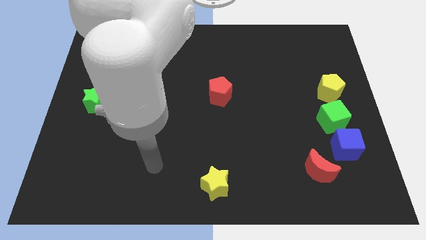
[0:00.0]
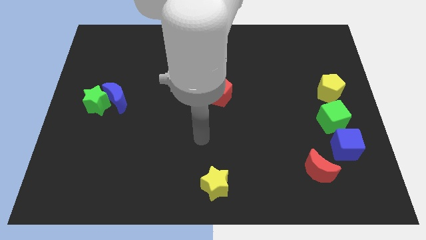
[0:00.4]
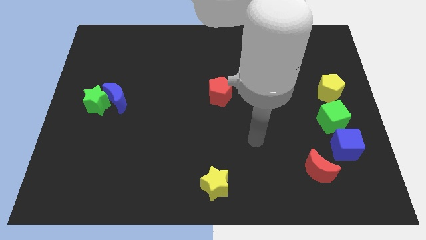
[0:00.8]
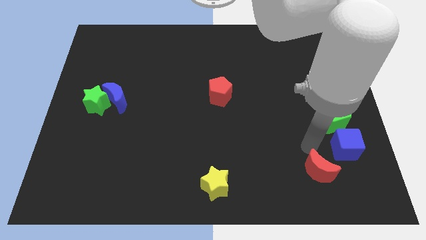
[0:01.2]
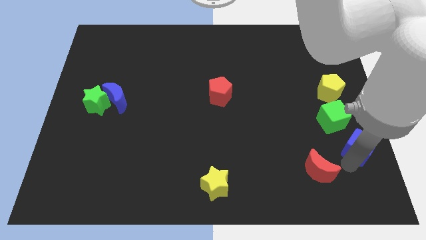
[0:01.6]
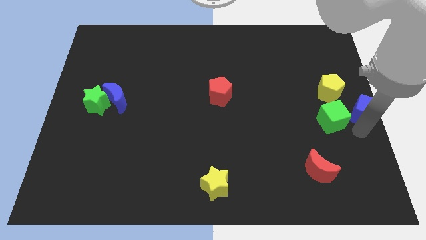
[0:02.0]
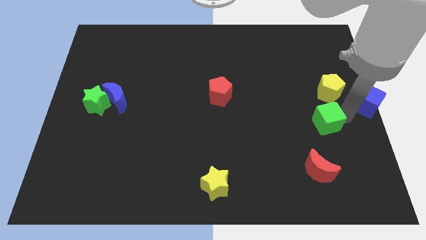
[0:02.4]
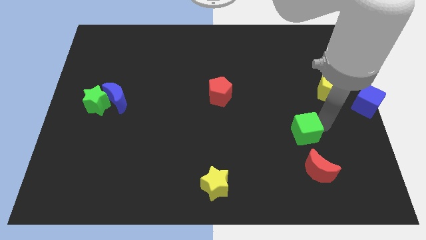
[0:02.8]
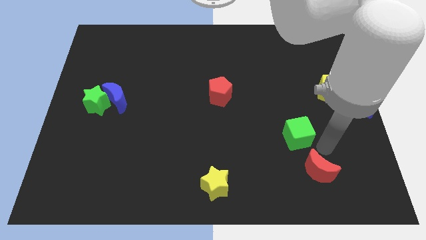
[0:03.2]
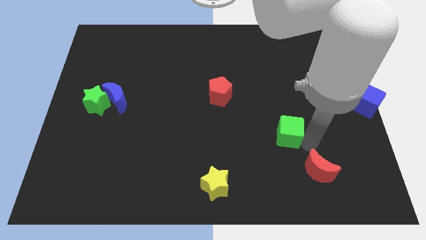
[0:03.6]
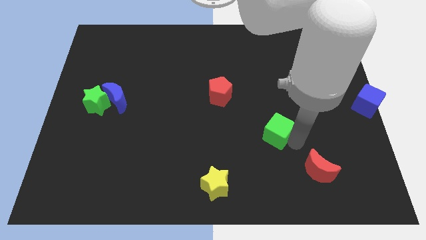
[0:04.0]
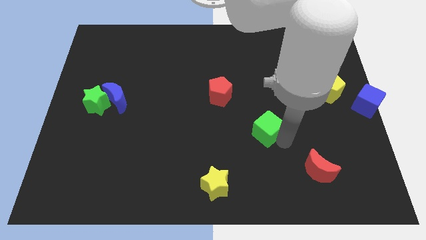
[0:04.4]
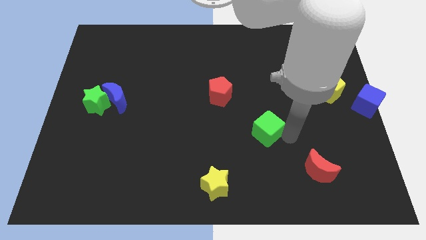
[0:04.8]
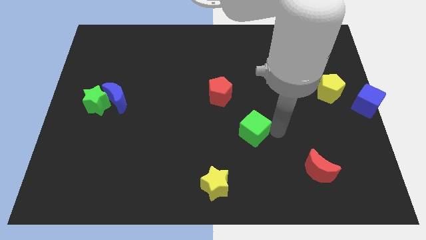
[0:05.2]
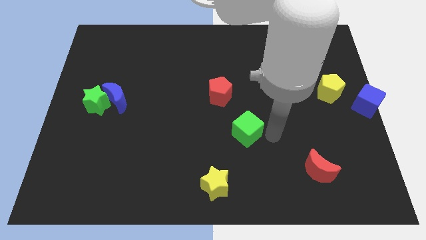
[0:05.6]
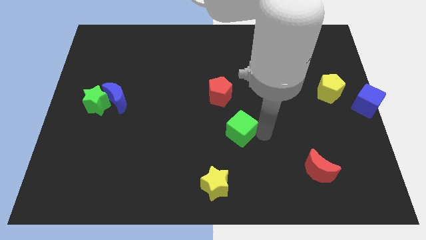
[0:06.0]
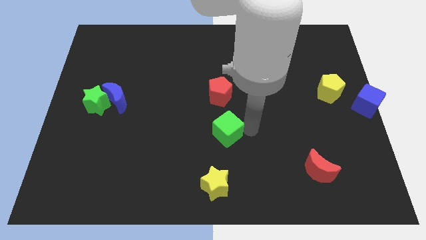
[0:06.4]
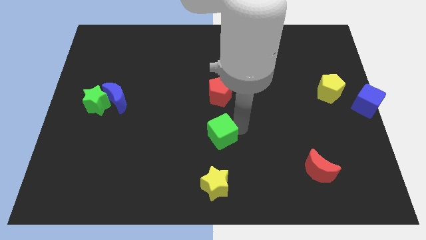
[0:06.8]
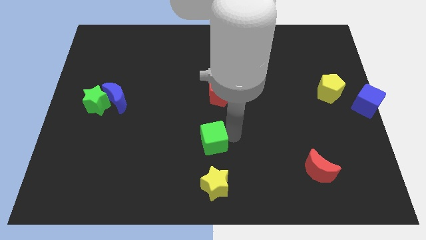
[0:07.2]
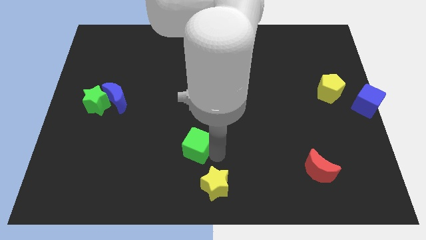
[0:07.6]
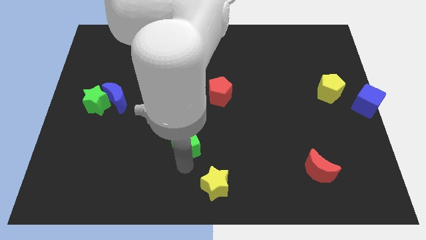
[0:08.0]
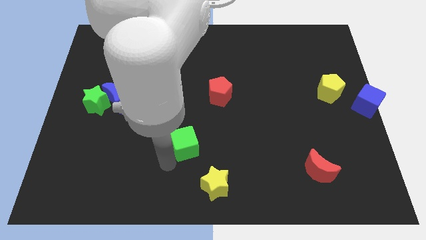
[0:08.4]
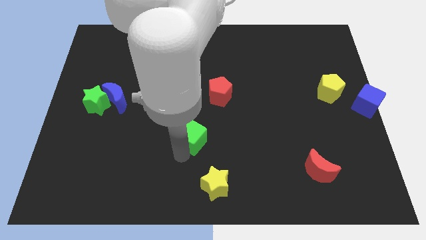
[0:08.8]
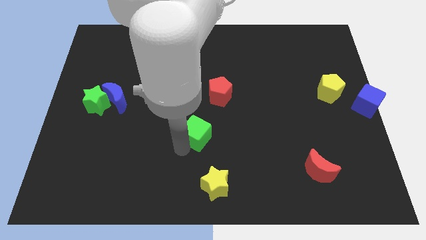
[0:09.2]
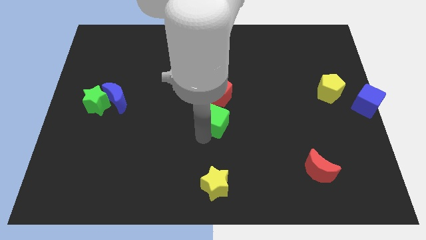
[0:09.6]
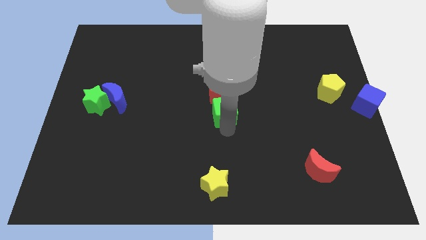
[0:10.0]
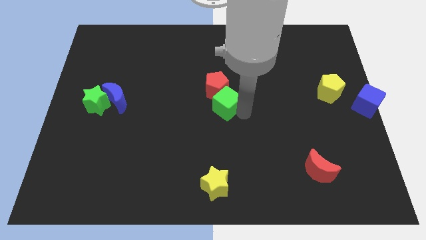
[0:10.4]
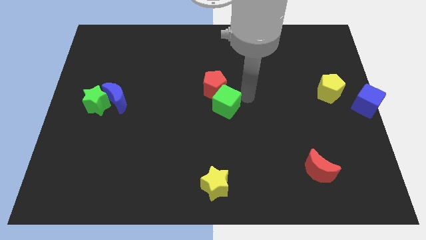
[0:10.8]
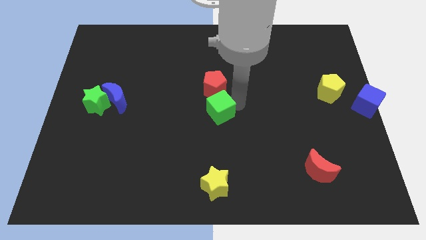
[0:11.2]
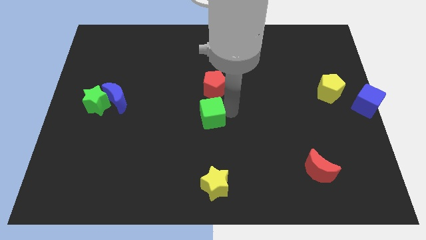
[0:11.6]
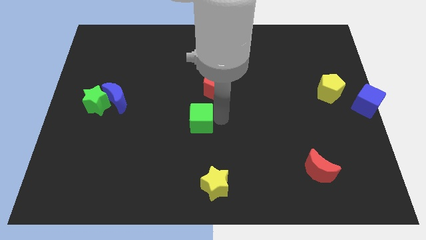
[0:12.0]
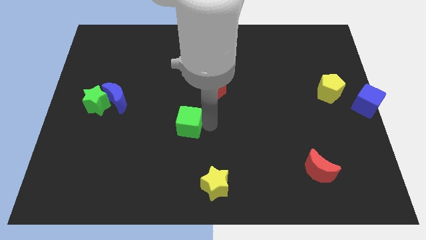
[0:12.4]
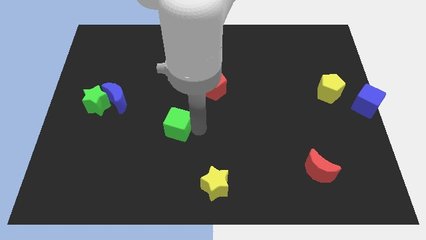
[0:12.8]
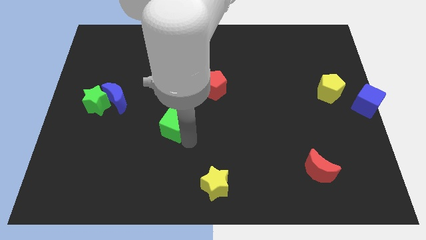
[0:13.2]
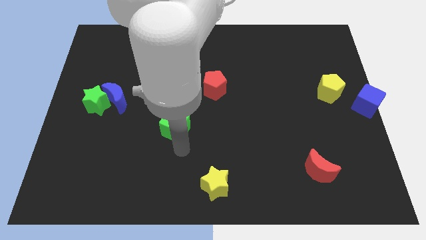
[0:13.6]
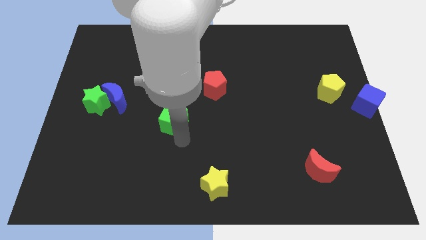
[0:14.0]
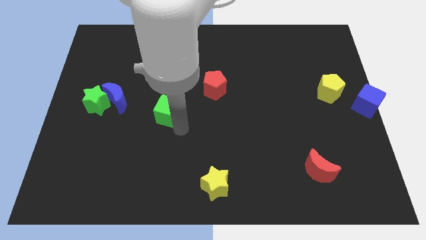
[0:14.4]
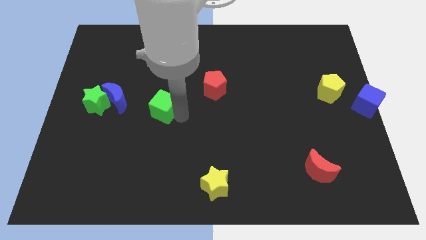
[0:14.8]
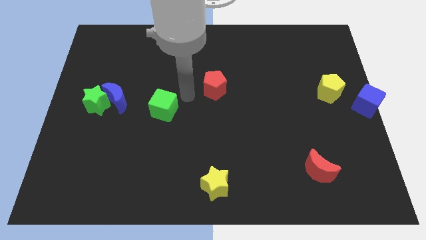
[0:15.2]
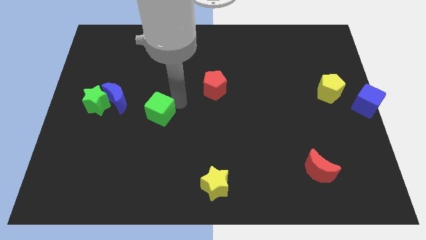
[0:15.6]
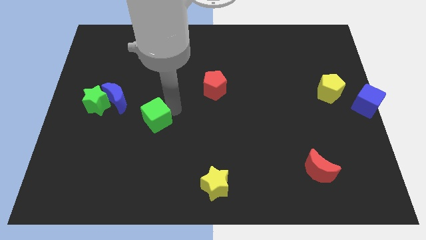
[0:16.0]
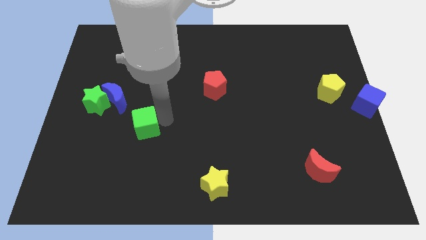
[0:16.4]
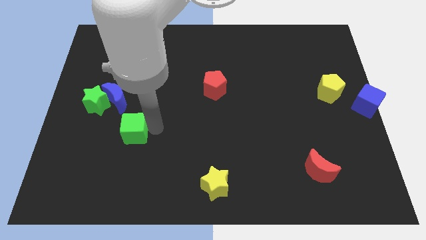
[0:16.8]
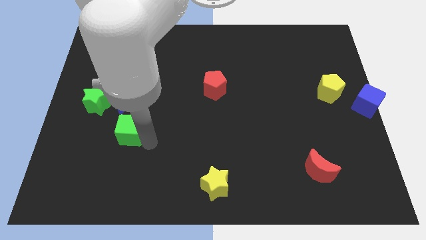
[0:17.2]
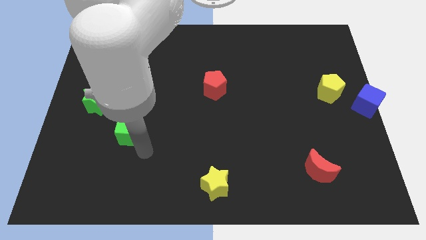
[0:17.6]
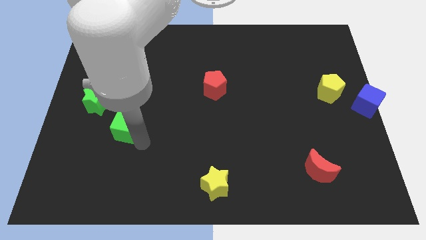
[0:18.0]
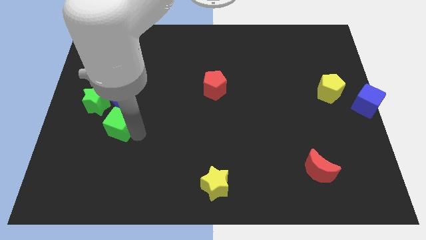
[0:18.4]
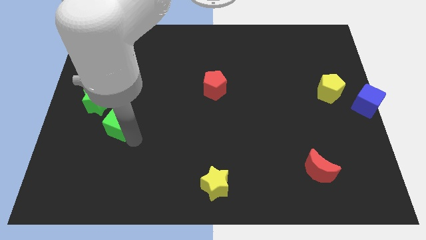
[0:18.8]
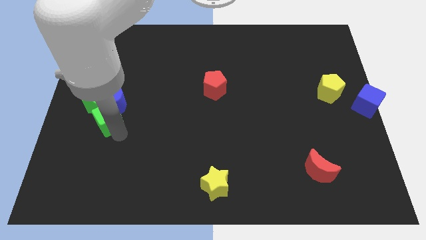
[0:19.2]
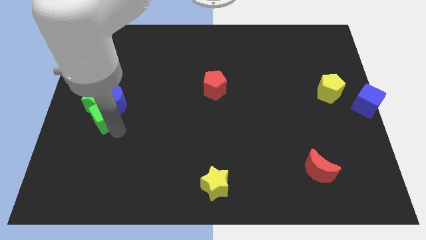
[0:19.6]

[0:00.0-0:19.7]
put the green cube next to the green star

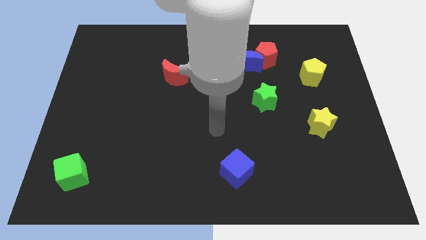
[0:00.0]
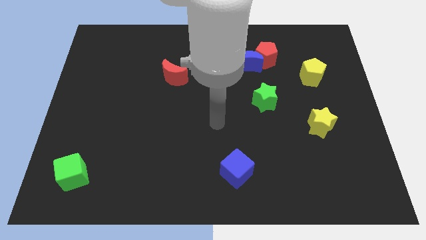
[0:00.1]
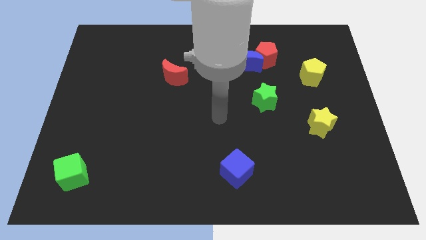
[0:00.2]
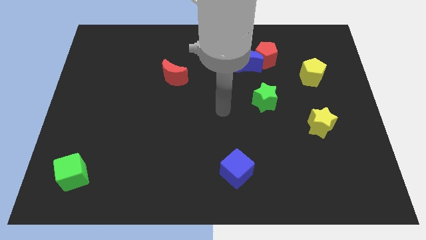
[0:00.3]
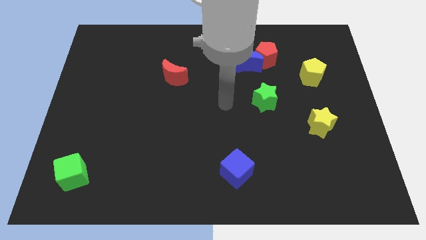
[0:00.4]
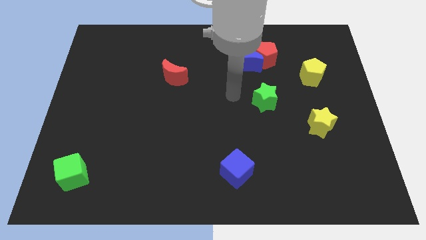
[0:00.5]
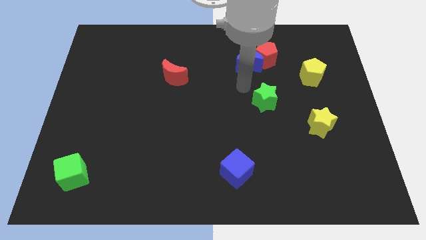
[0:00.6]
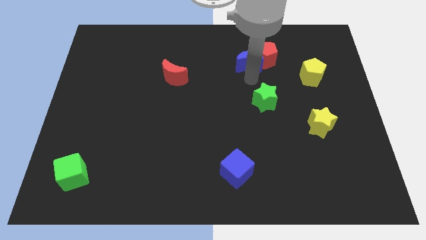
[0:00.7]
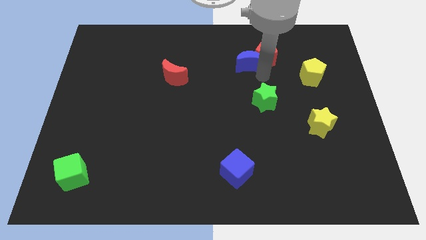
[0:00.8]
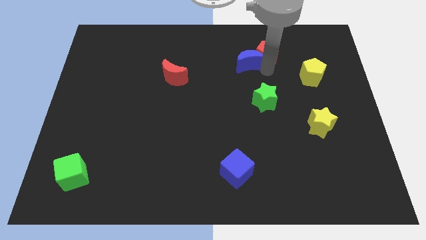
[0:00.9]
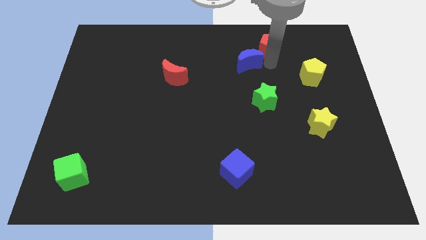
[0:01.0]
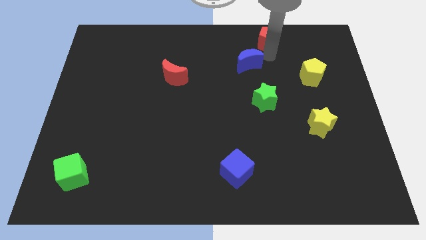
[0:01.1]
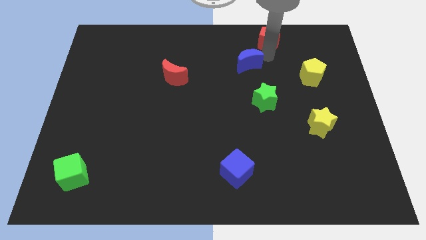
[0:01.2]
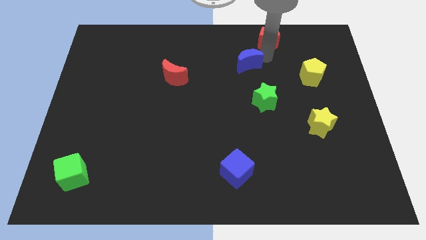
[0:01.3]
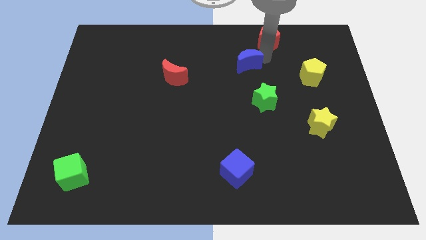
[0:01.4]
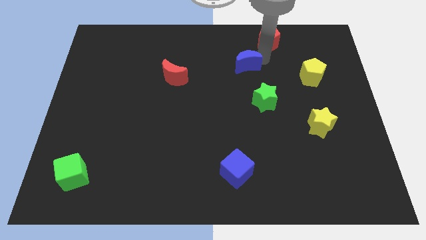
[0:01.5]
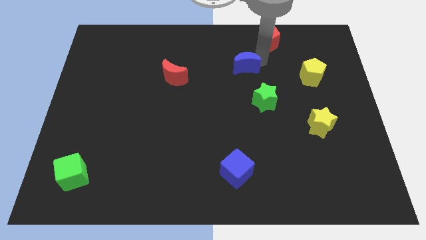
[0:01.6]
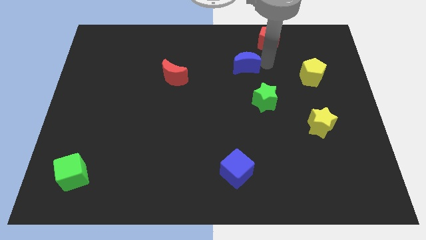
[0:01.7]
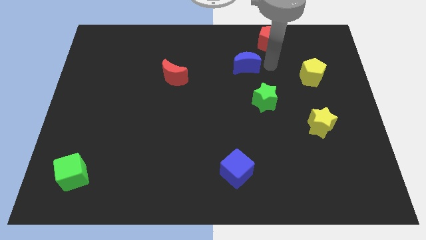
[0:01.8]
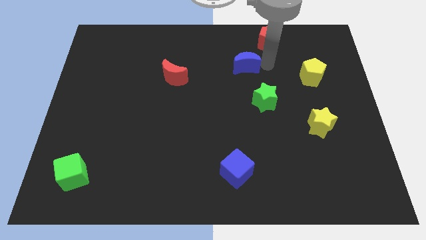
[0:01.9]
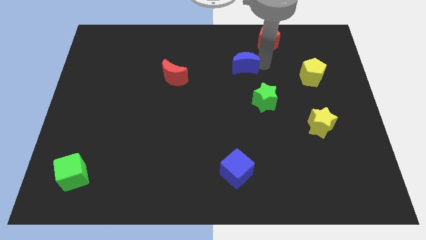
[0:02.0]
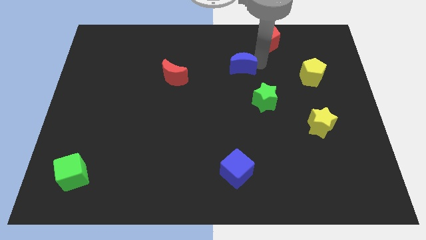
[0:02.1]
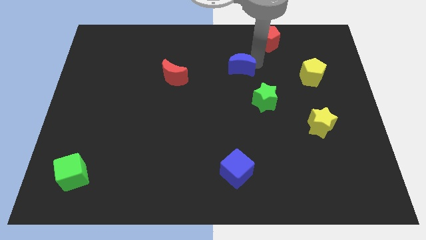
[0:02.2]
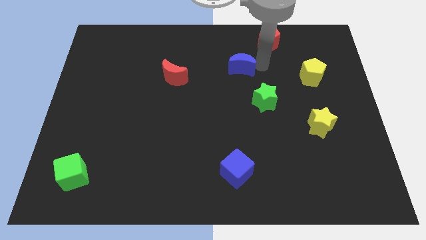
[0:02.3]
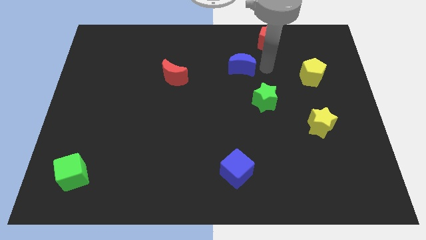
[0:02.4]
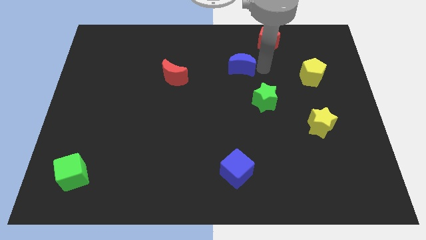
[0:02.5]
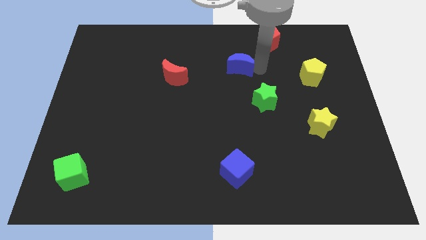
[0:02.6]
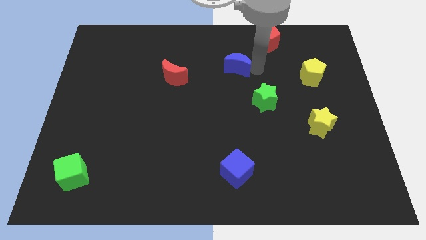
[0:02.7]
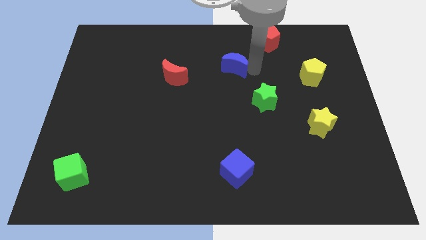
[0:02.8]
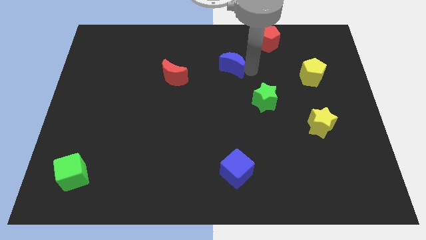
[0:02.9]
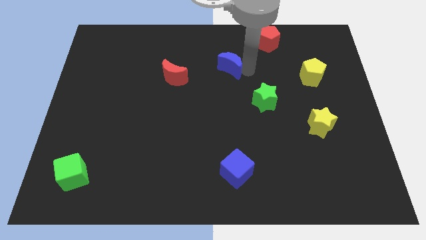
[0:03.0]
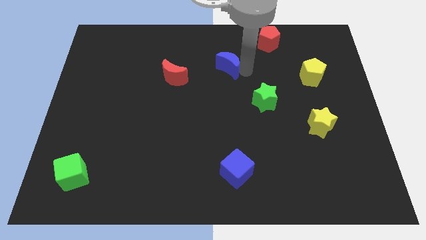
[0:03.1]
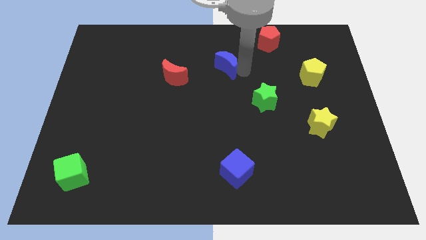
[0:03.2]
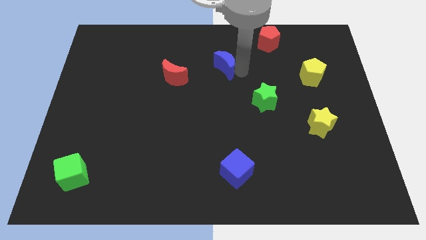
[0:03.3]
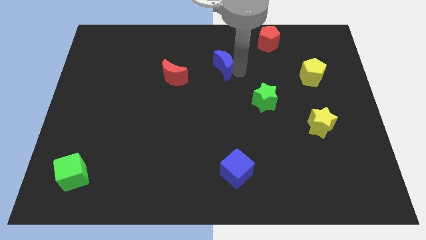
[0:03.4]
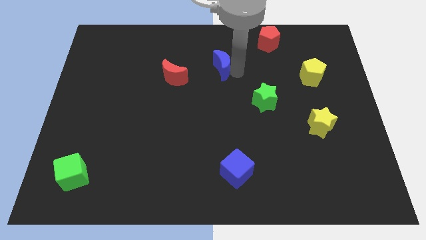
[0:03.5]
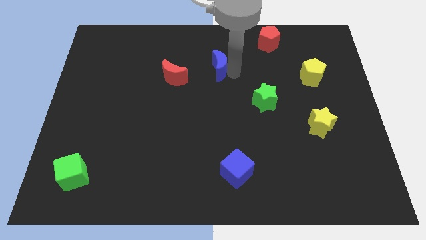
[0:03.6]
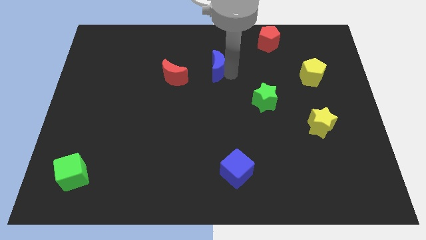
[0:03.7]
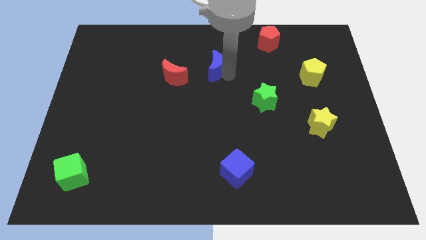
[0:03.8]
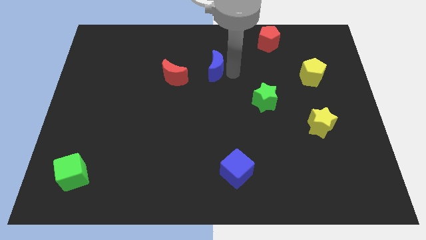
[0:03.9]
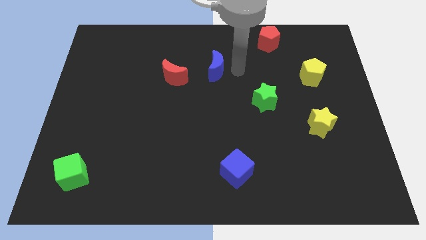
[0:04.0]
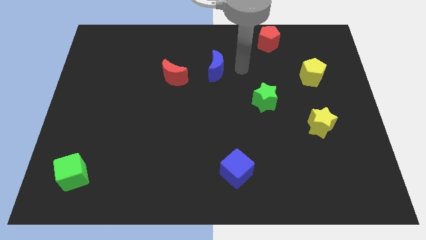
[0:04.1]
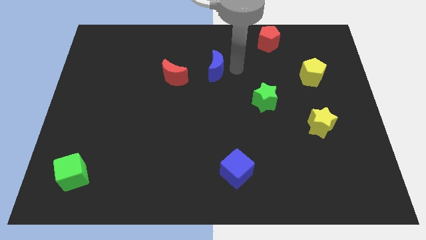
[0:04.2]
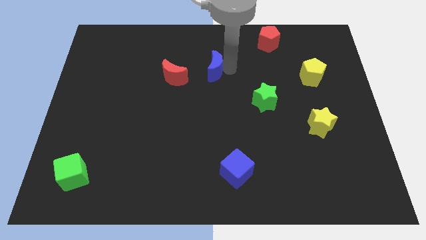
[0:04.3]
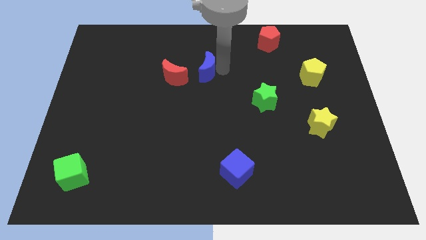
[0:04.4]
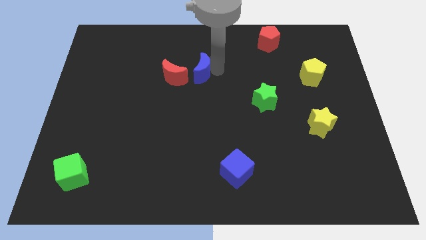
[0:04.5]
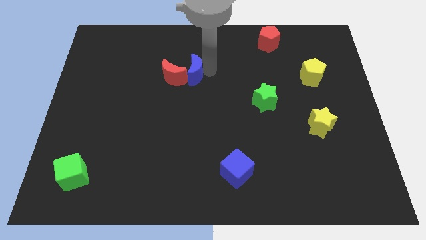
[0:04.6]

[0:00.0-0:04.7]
slide the blue moon to the red moon
